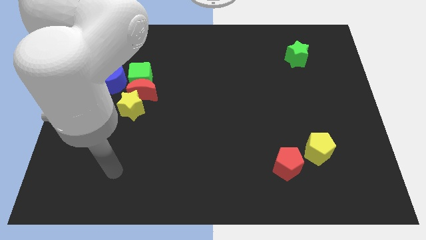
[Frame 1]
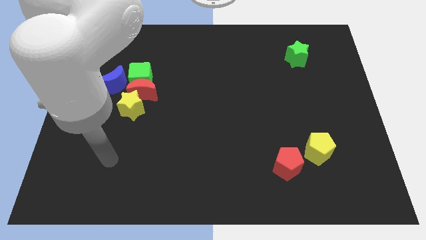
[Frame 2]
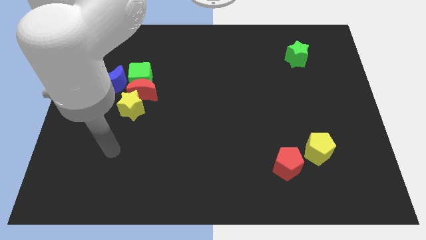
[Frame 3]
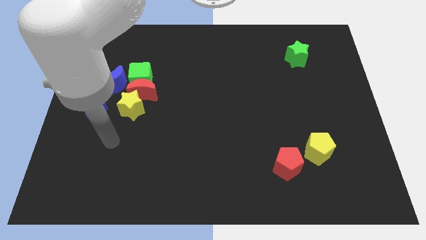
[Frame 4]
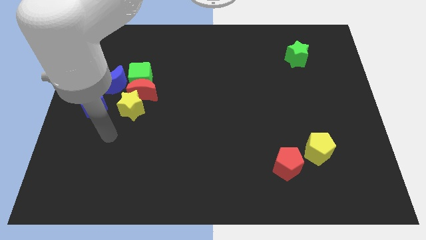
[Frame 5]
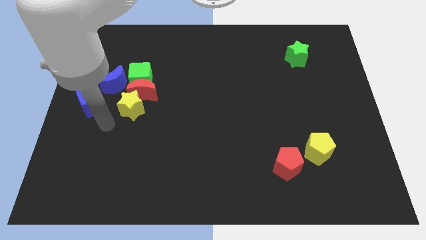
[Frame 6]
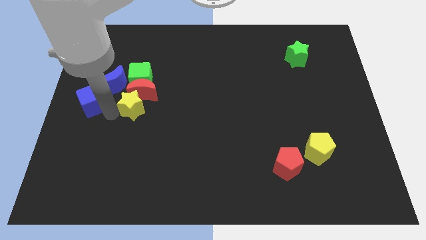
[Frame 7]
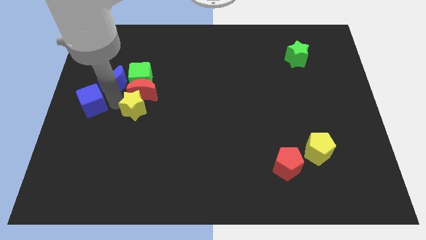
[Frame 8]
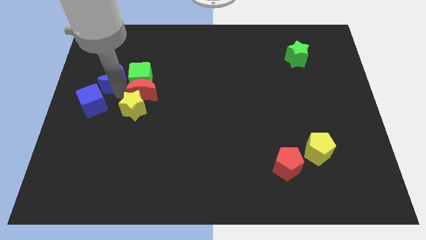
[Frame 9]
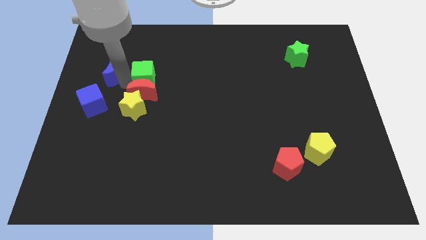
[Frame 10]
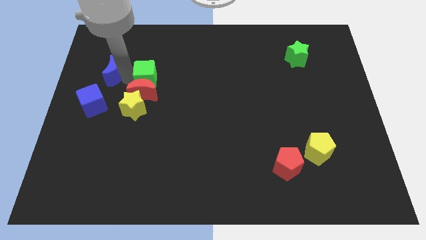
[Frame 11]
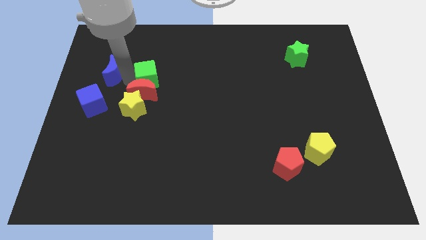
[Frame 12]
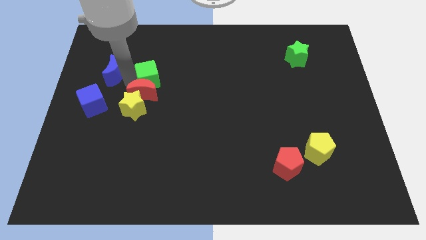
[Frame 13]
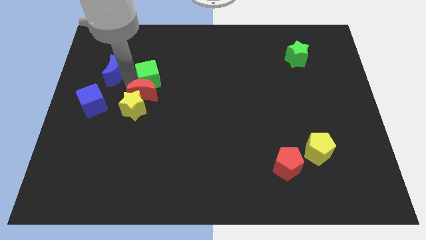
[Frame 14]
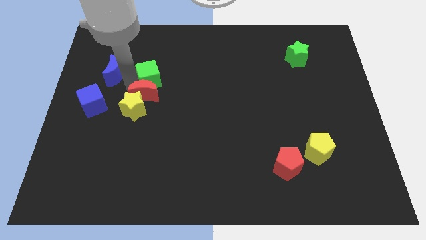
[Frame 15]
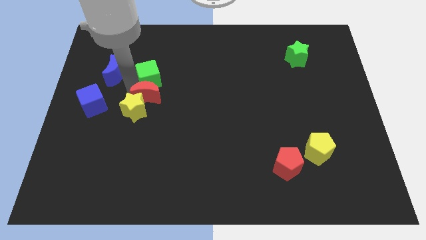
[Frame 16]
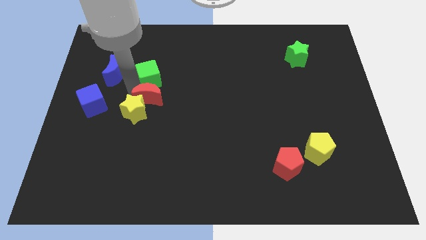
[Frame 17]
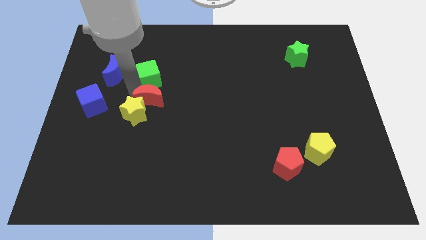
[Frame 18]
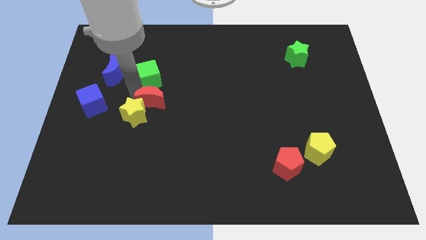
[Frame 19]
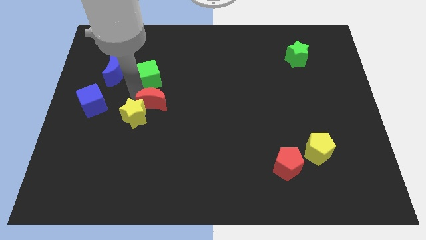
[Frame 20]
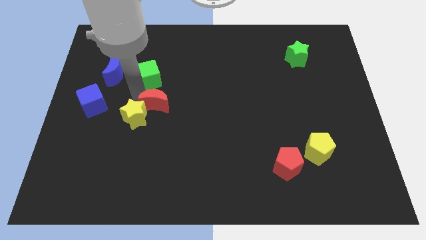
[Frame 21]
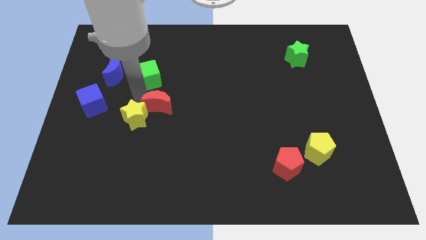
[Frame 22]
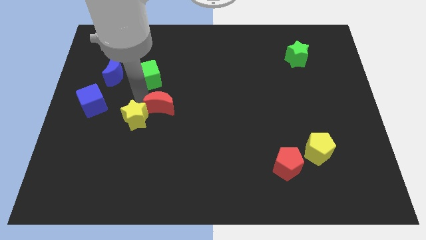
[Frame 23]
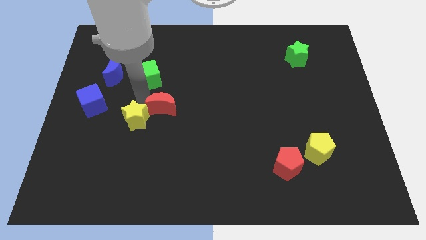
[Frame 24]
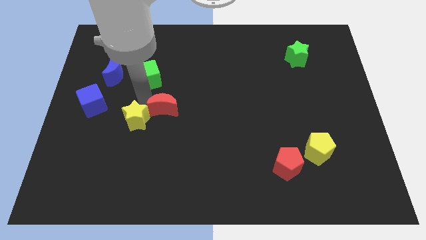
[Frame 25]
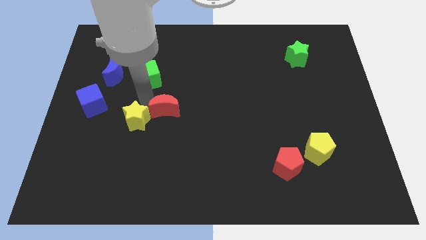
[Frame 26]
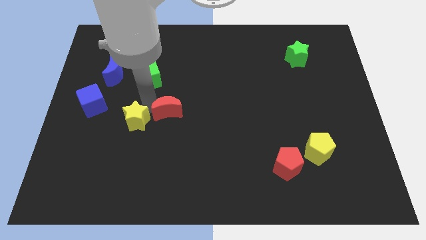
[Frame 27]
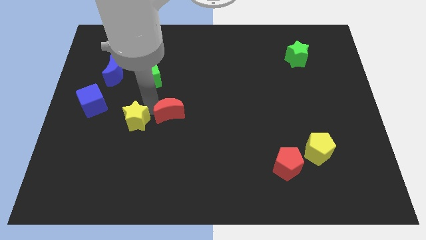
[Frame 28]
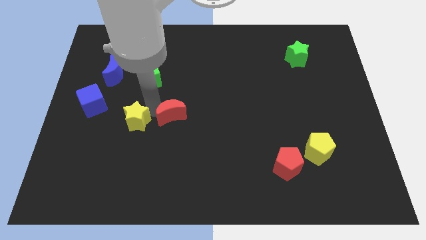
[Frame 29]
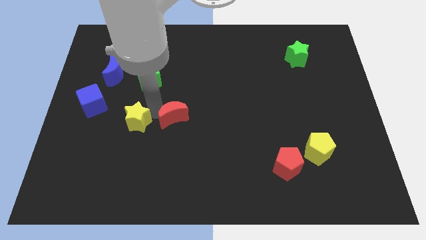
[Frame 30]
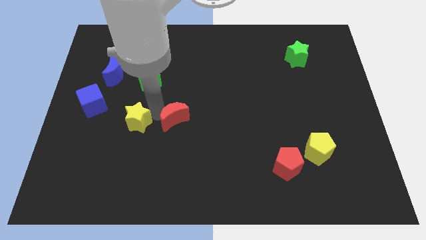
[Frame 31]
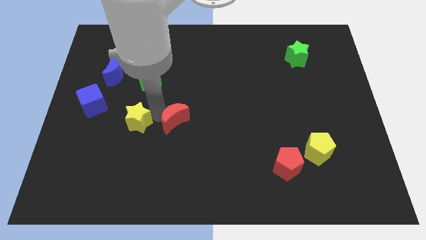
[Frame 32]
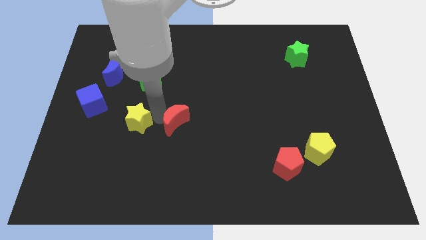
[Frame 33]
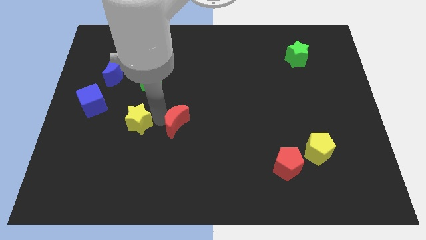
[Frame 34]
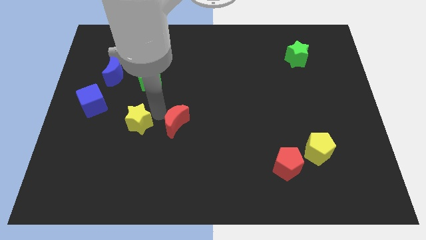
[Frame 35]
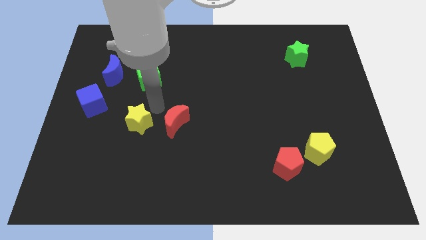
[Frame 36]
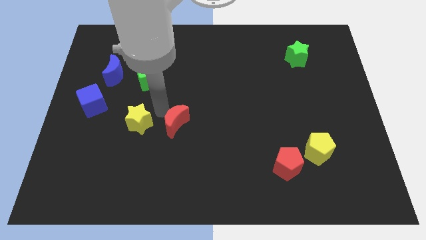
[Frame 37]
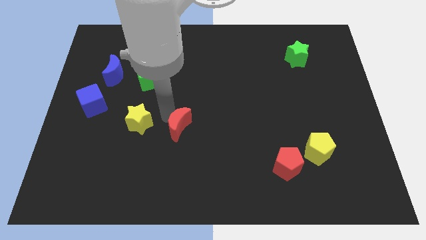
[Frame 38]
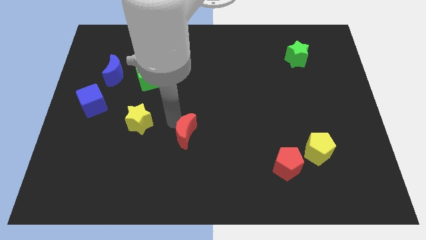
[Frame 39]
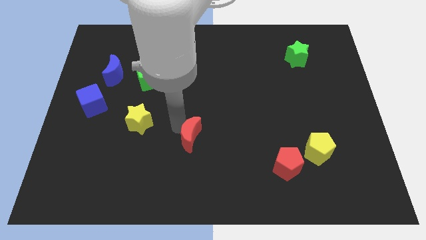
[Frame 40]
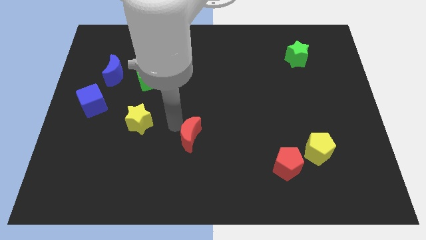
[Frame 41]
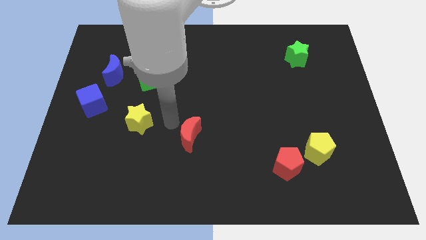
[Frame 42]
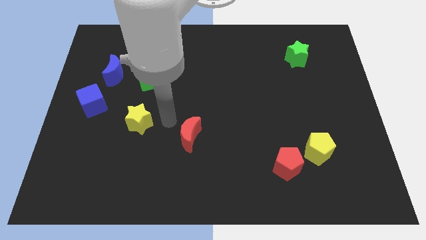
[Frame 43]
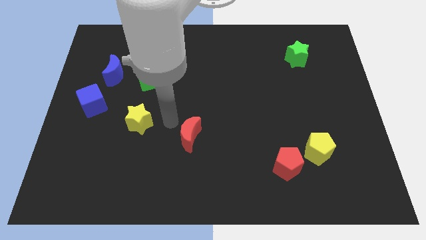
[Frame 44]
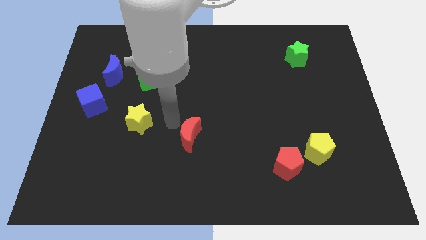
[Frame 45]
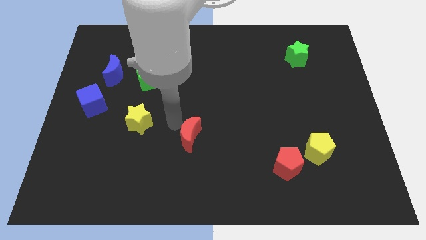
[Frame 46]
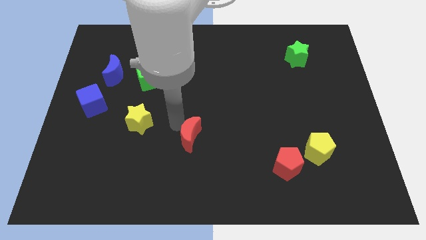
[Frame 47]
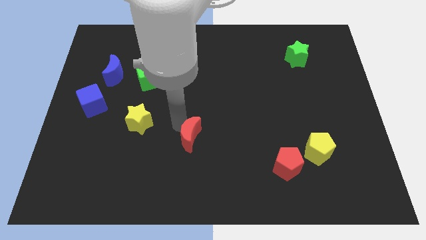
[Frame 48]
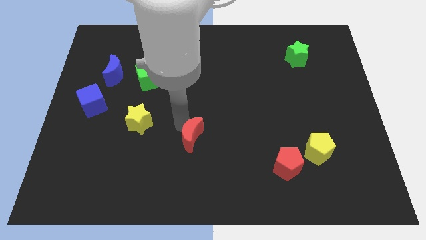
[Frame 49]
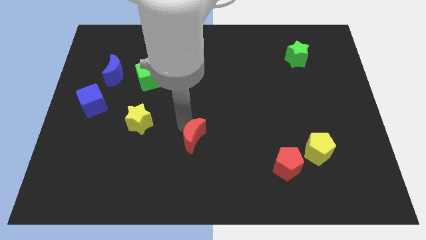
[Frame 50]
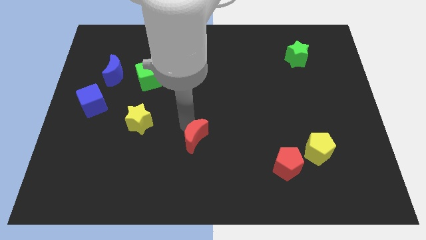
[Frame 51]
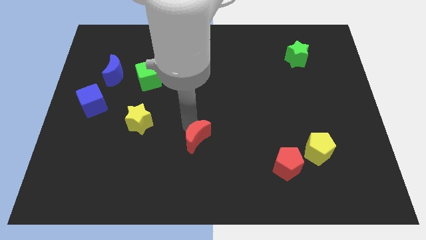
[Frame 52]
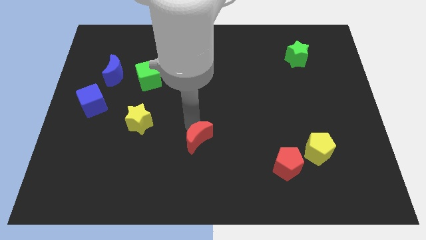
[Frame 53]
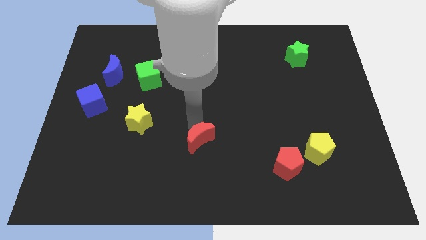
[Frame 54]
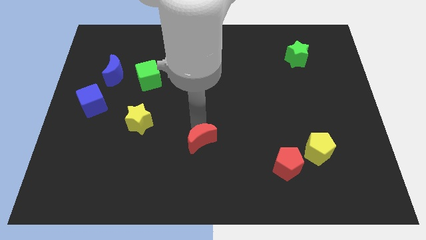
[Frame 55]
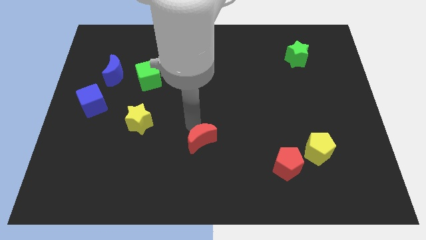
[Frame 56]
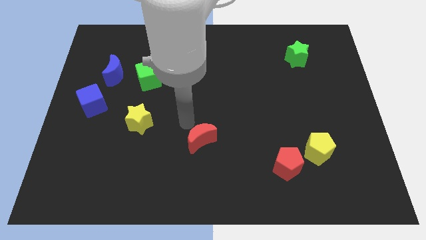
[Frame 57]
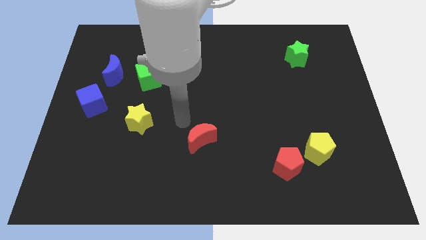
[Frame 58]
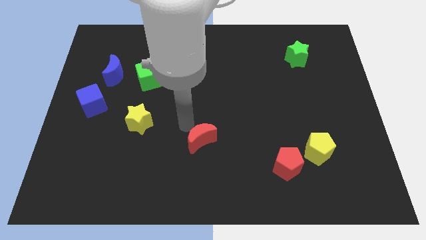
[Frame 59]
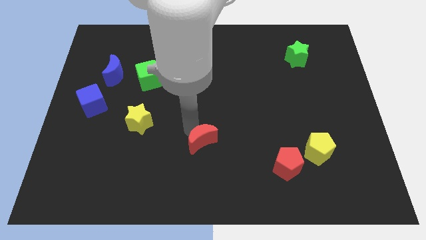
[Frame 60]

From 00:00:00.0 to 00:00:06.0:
slide the red moon down and to the right diagonally

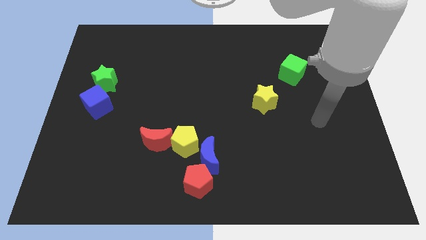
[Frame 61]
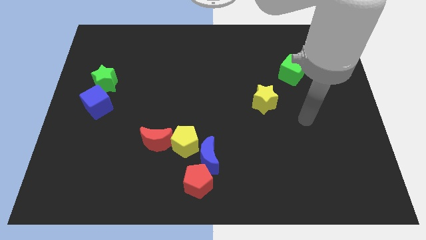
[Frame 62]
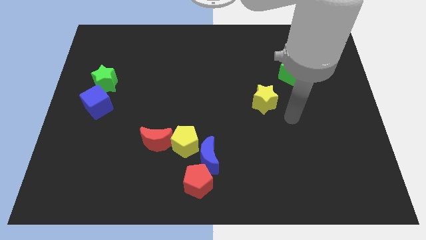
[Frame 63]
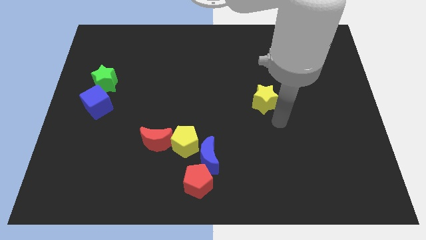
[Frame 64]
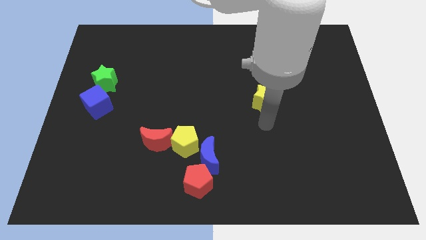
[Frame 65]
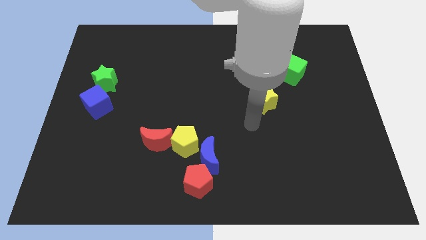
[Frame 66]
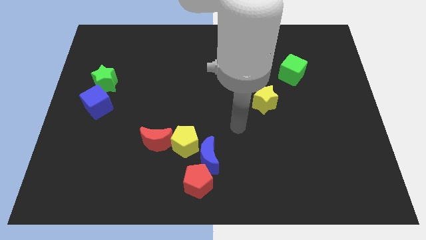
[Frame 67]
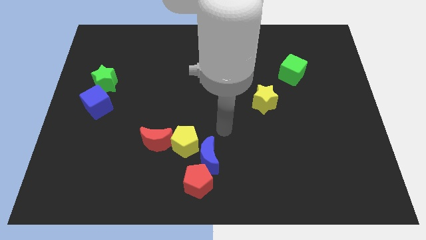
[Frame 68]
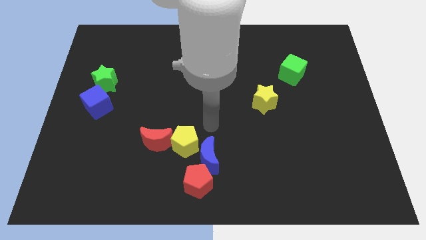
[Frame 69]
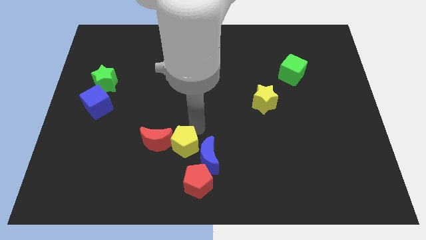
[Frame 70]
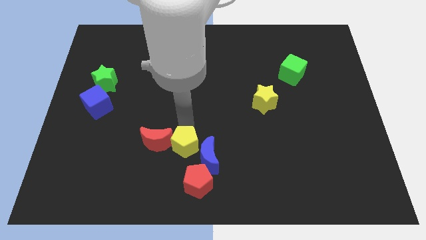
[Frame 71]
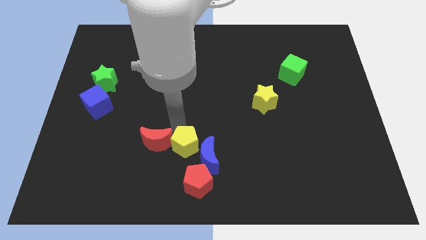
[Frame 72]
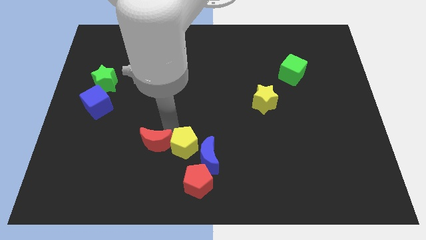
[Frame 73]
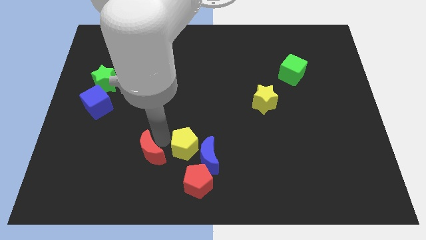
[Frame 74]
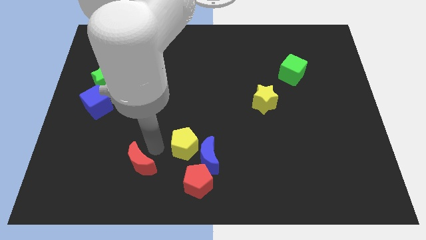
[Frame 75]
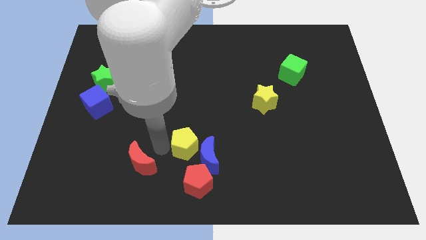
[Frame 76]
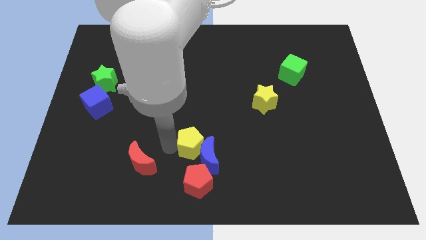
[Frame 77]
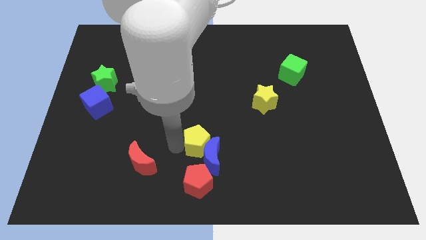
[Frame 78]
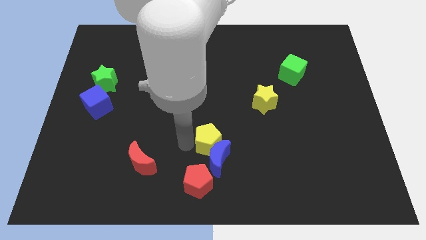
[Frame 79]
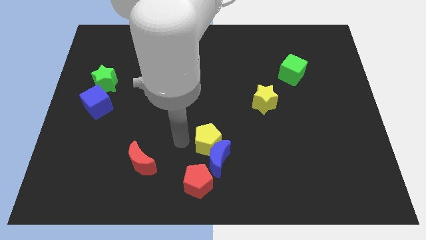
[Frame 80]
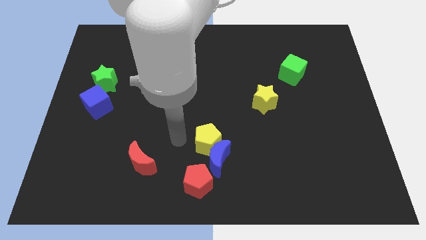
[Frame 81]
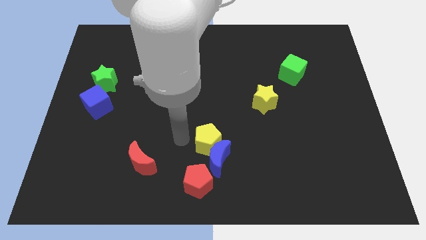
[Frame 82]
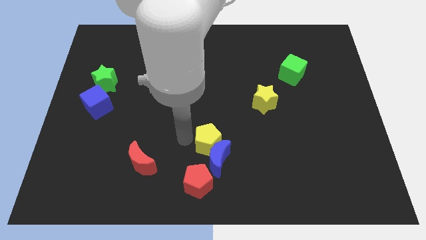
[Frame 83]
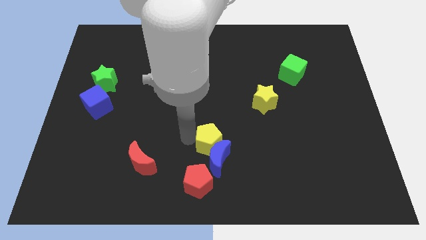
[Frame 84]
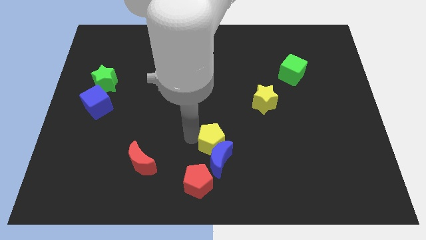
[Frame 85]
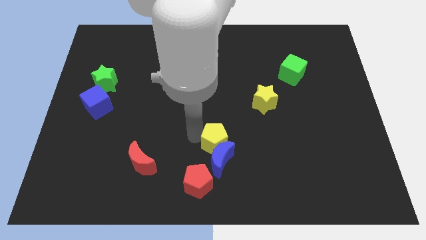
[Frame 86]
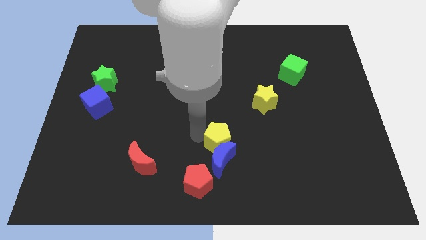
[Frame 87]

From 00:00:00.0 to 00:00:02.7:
slightly push the yellow pentagon to the right
